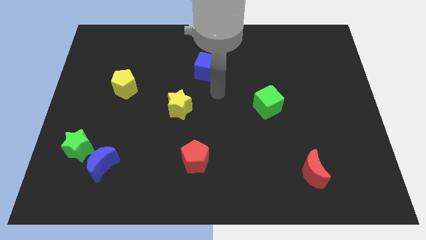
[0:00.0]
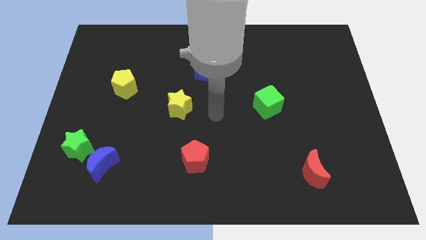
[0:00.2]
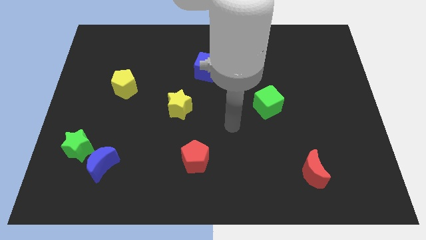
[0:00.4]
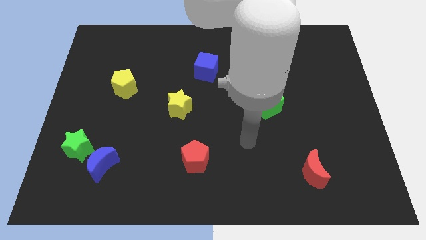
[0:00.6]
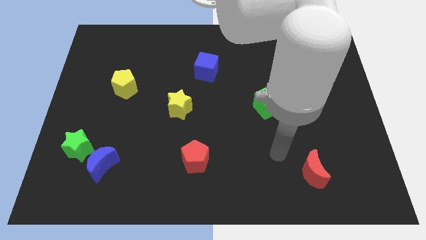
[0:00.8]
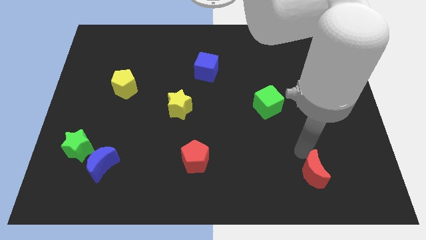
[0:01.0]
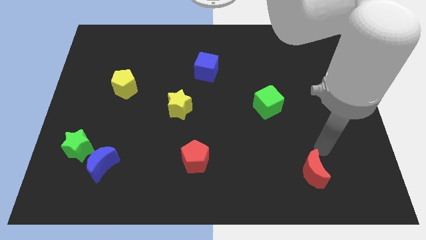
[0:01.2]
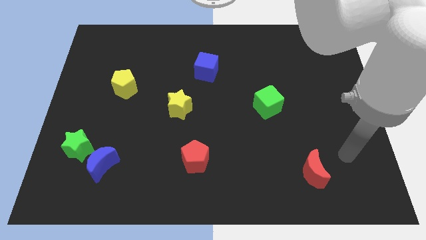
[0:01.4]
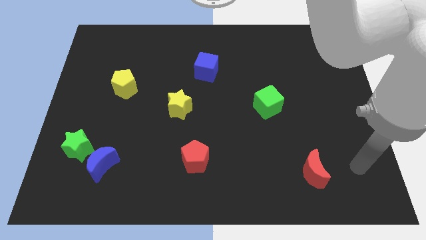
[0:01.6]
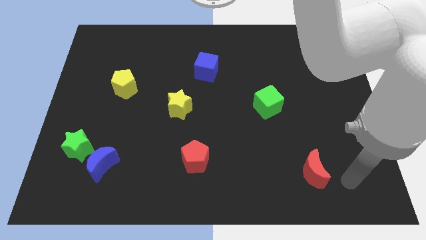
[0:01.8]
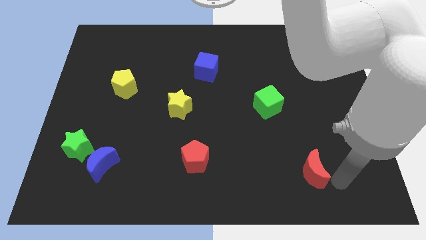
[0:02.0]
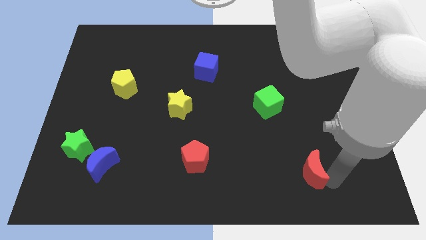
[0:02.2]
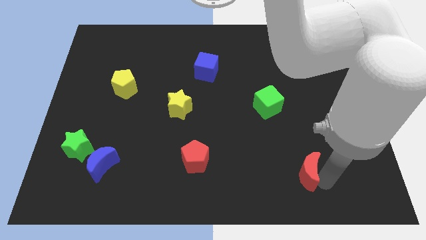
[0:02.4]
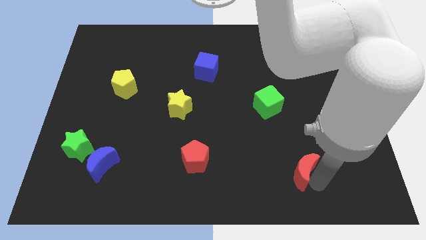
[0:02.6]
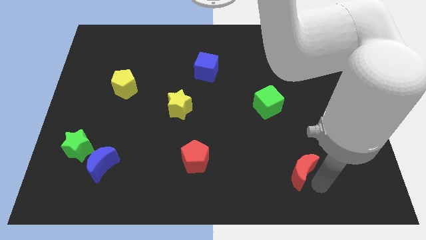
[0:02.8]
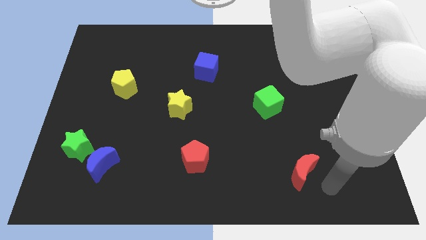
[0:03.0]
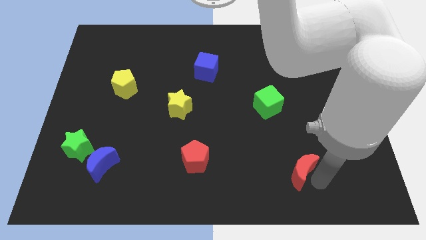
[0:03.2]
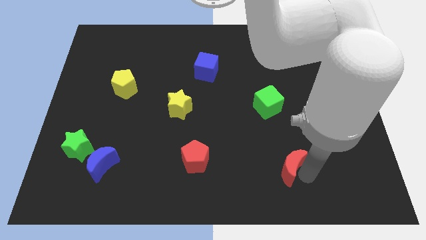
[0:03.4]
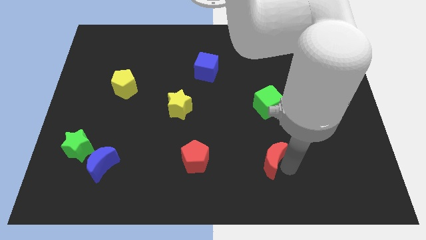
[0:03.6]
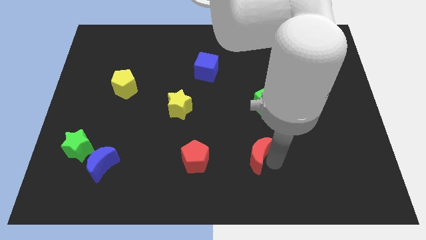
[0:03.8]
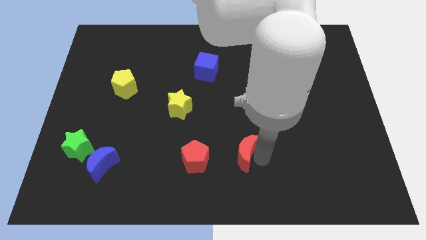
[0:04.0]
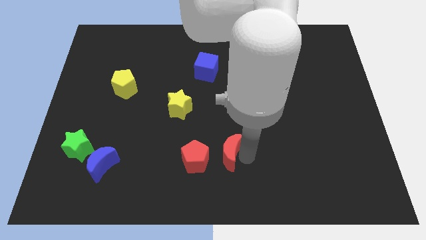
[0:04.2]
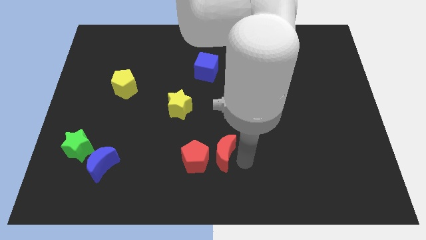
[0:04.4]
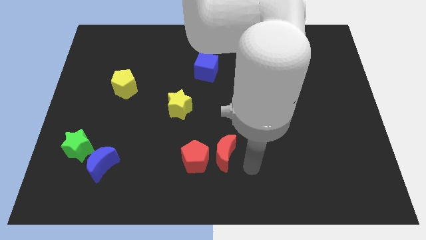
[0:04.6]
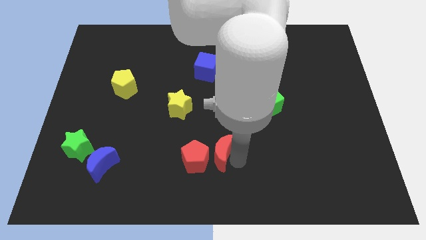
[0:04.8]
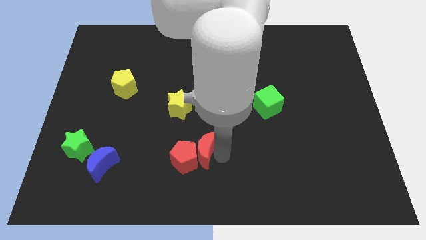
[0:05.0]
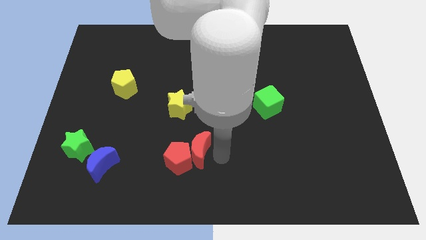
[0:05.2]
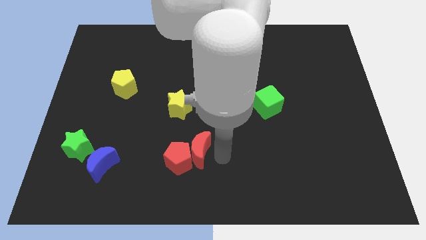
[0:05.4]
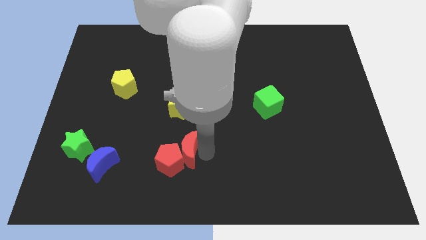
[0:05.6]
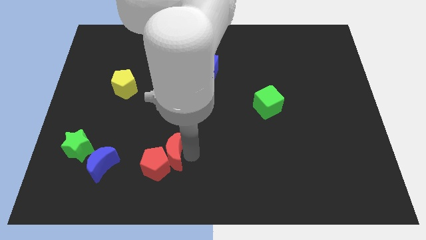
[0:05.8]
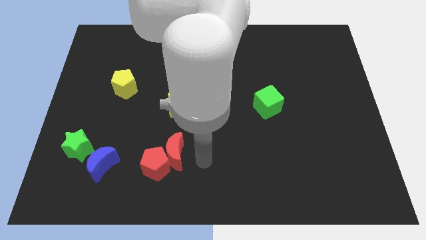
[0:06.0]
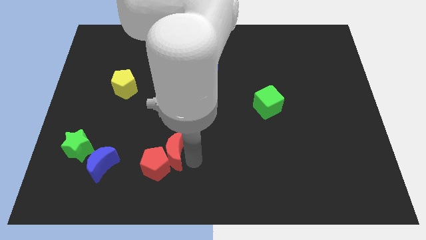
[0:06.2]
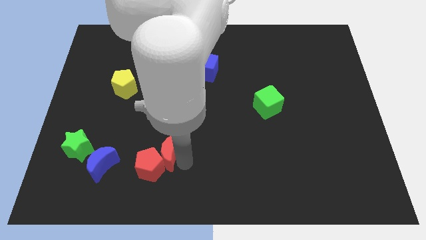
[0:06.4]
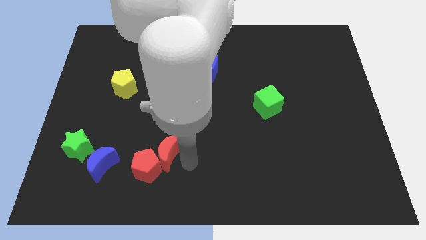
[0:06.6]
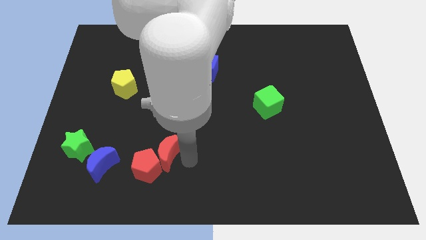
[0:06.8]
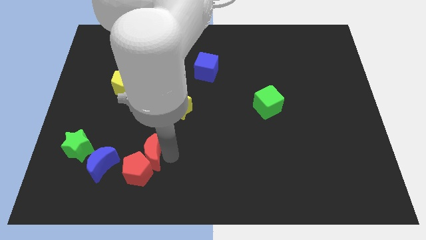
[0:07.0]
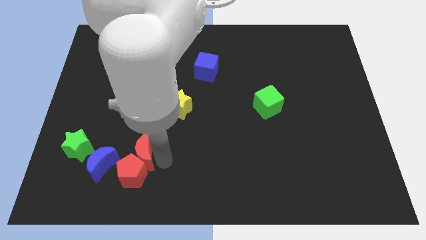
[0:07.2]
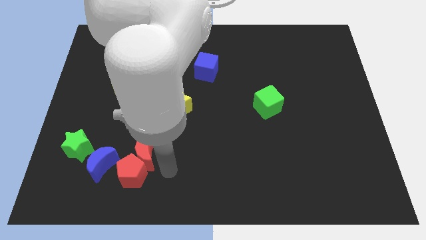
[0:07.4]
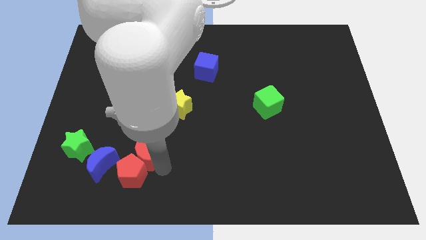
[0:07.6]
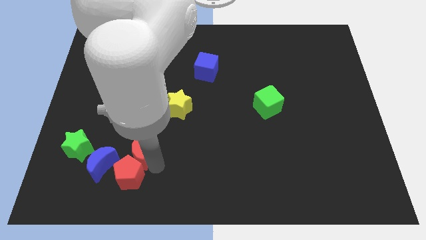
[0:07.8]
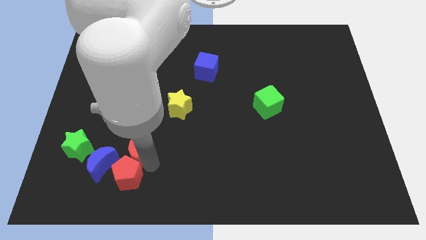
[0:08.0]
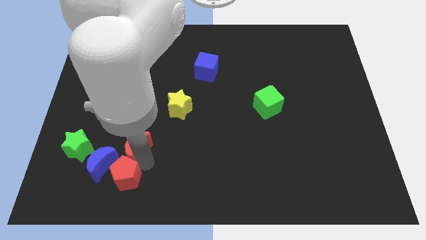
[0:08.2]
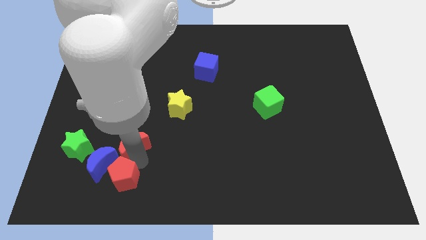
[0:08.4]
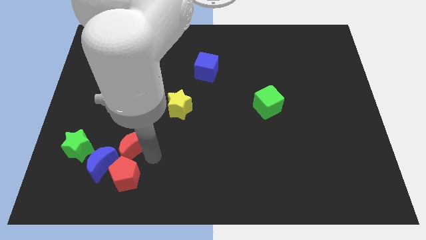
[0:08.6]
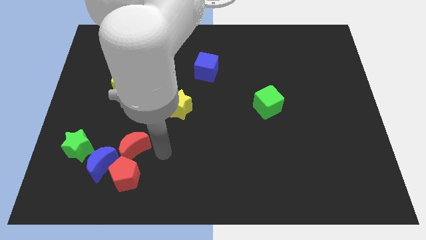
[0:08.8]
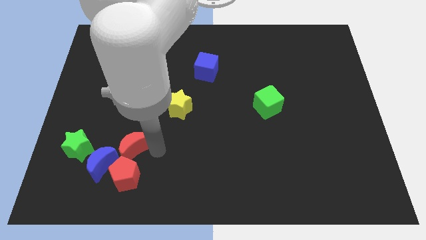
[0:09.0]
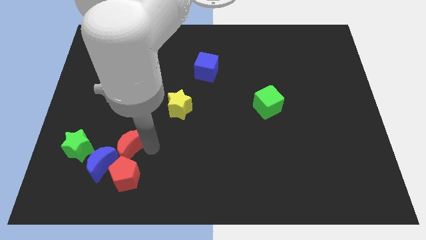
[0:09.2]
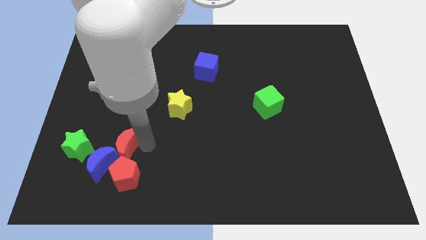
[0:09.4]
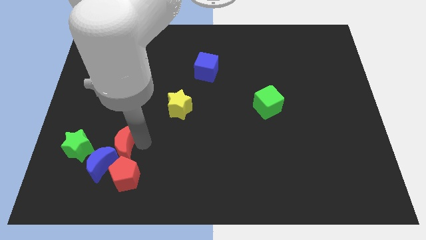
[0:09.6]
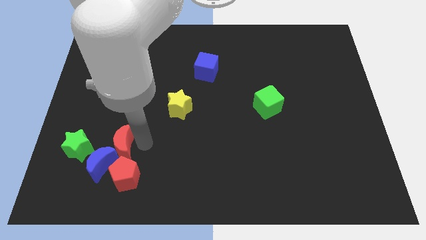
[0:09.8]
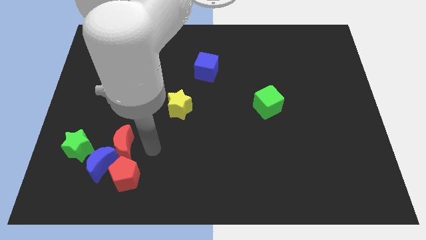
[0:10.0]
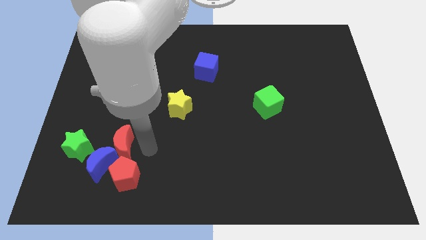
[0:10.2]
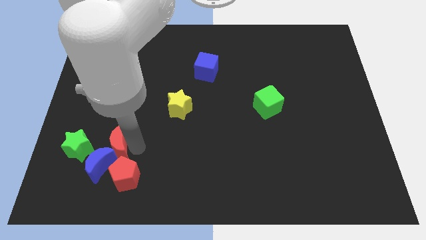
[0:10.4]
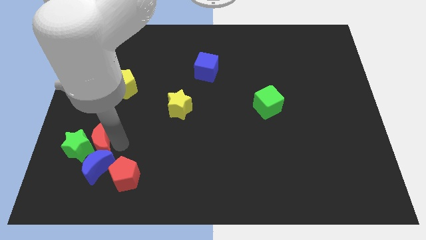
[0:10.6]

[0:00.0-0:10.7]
put the red moon next to the green star

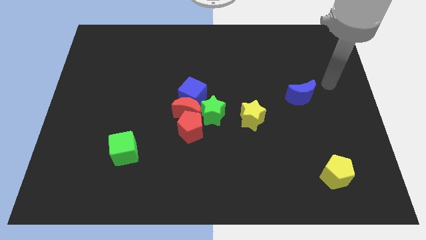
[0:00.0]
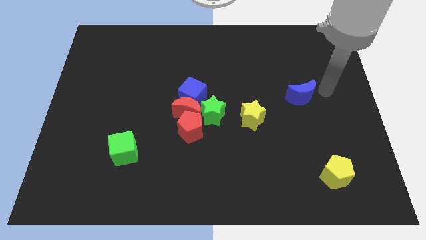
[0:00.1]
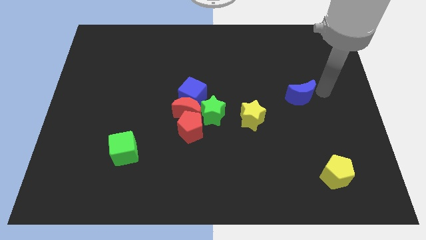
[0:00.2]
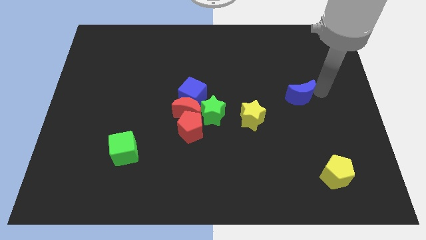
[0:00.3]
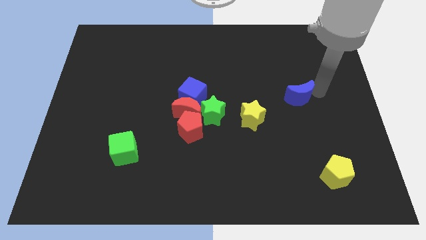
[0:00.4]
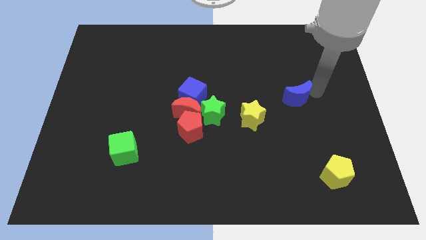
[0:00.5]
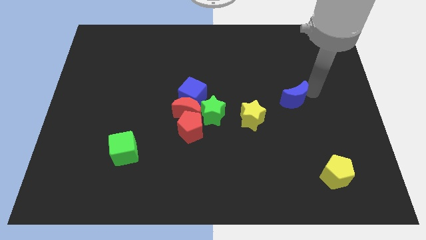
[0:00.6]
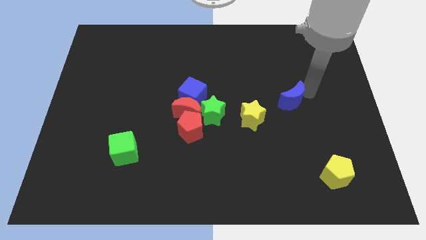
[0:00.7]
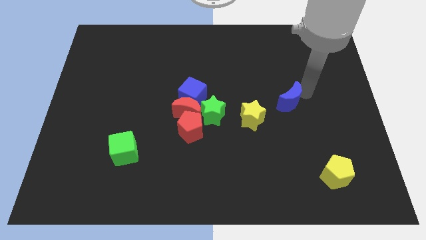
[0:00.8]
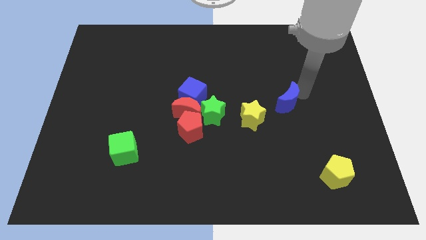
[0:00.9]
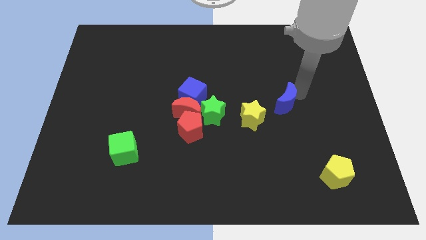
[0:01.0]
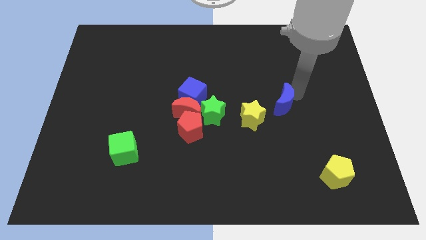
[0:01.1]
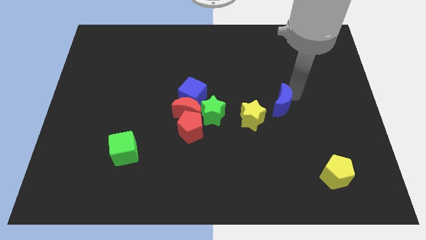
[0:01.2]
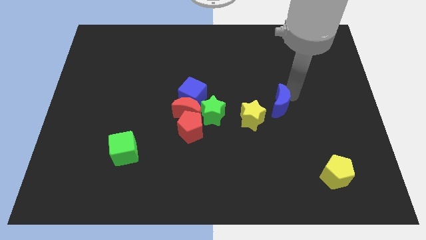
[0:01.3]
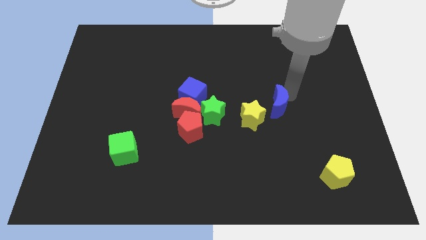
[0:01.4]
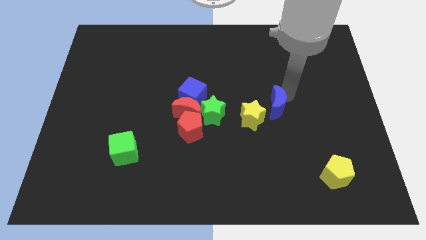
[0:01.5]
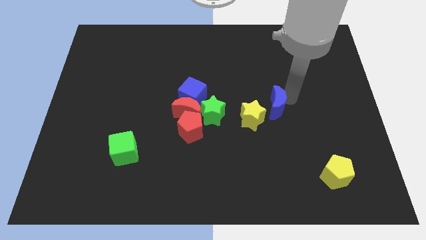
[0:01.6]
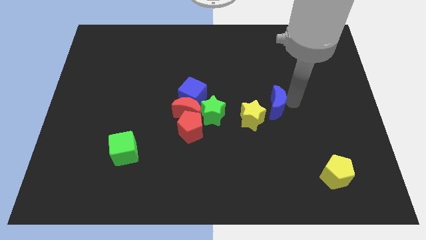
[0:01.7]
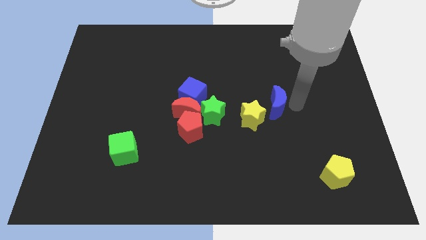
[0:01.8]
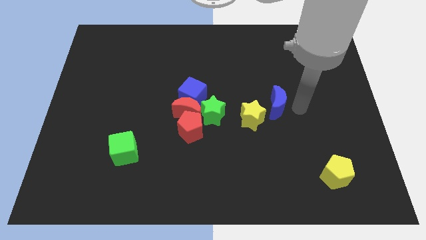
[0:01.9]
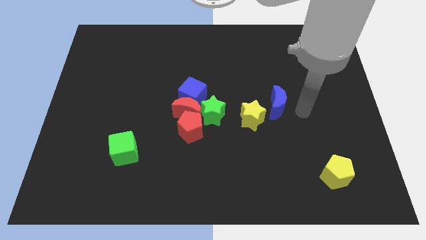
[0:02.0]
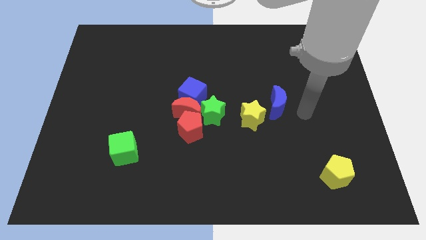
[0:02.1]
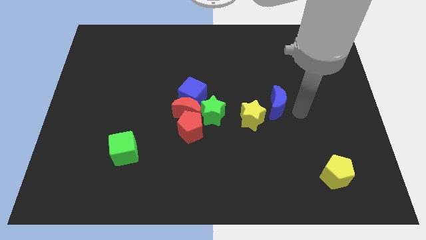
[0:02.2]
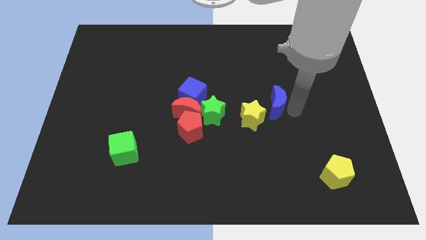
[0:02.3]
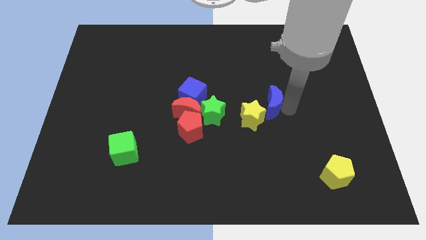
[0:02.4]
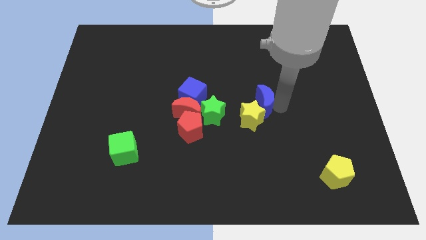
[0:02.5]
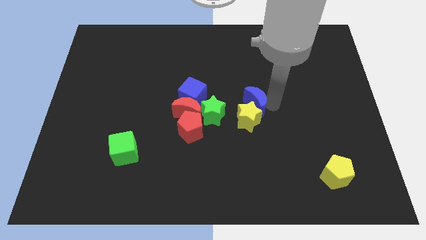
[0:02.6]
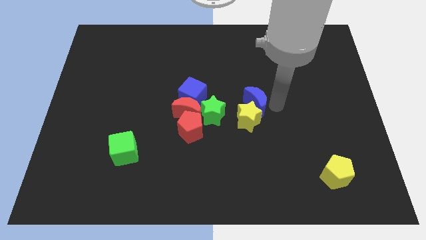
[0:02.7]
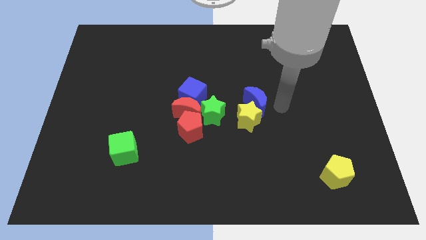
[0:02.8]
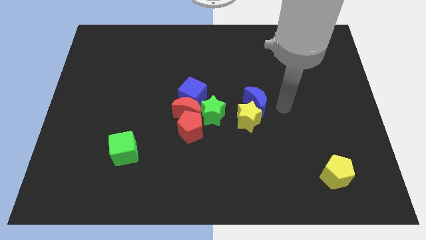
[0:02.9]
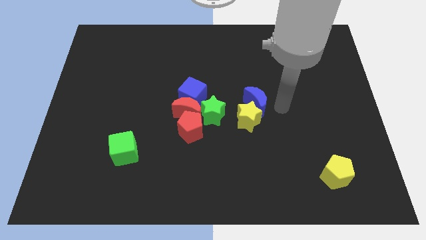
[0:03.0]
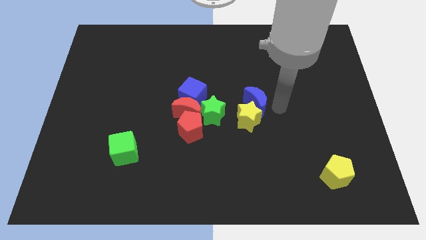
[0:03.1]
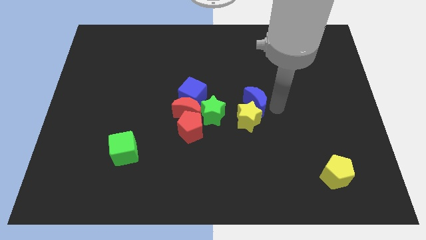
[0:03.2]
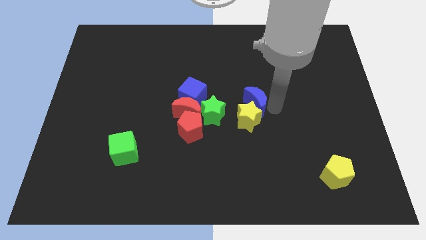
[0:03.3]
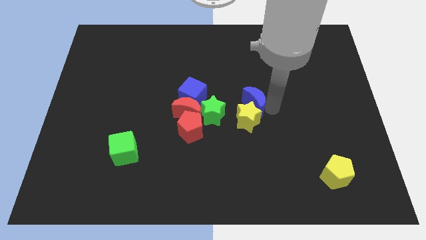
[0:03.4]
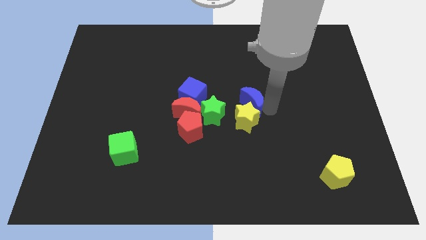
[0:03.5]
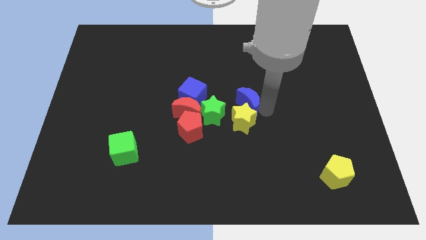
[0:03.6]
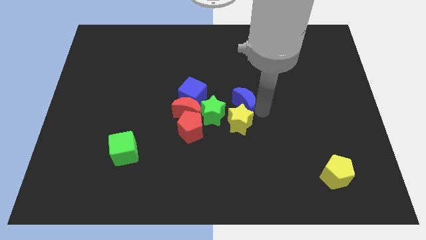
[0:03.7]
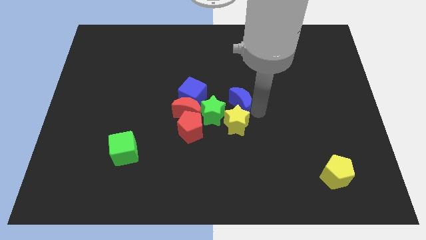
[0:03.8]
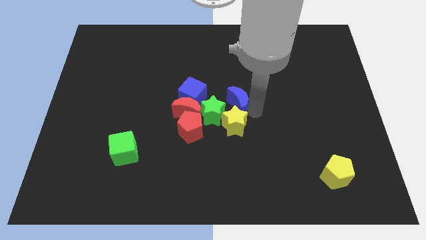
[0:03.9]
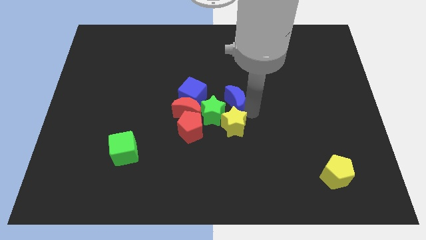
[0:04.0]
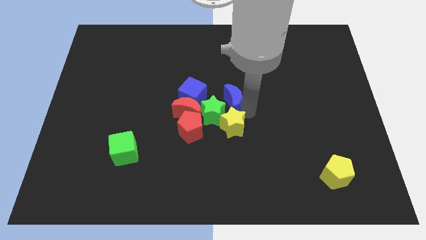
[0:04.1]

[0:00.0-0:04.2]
push the blue moon to the green star
